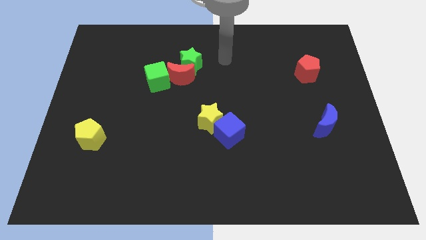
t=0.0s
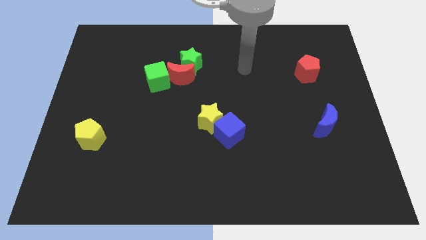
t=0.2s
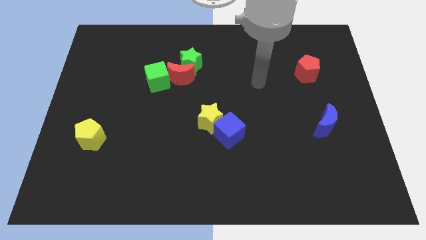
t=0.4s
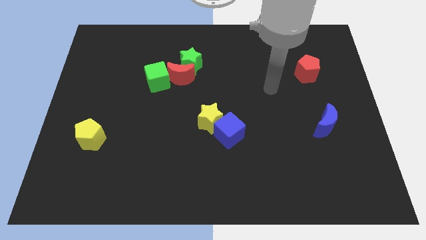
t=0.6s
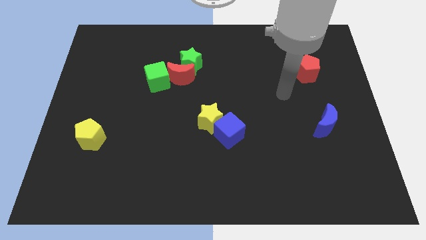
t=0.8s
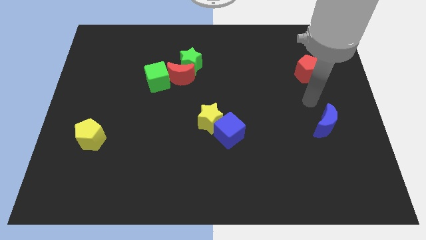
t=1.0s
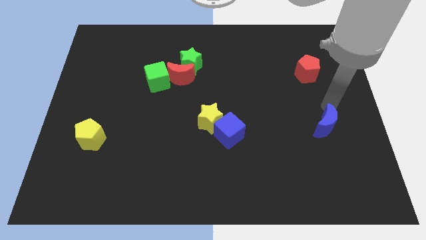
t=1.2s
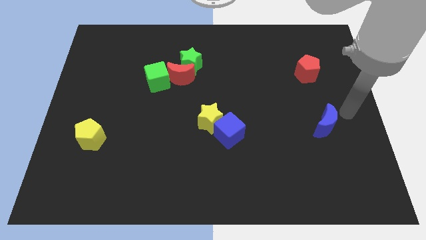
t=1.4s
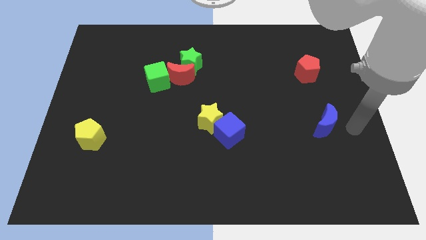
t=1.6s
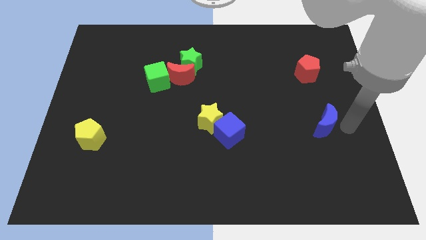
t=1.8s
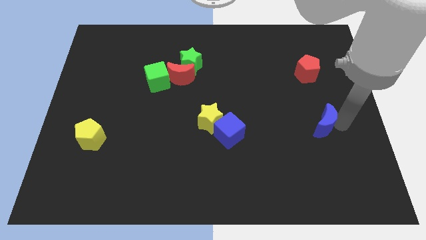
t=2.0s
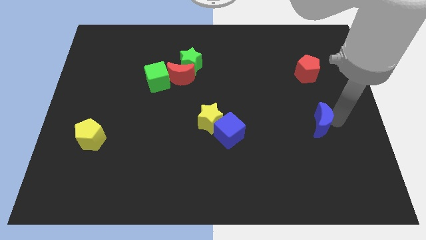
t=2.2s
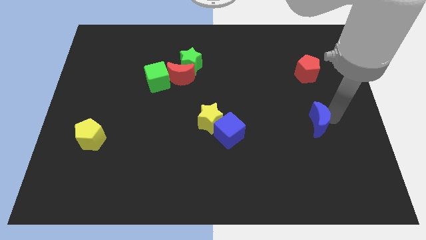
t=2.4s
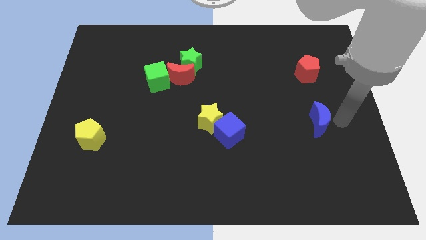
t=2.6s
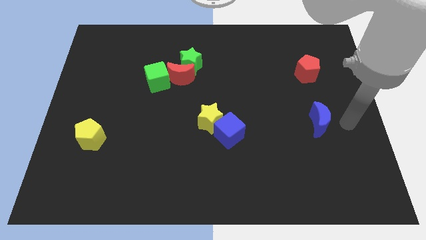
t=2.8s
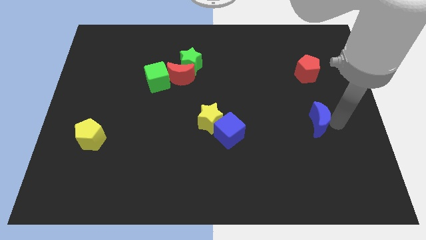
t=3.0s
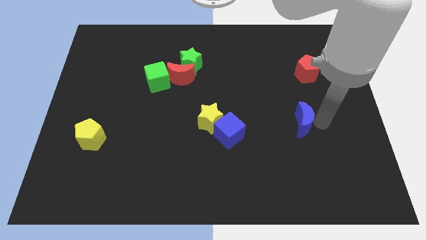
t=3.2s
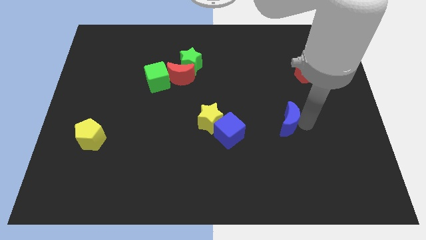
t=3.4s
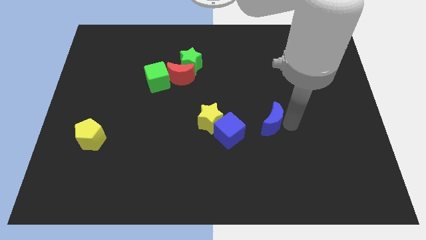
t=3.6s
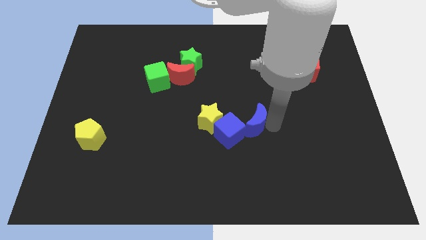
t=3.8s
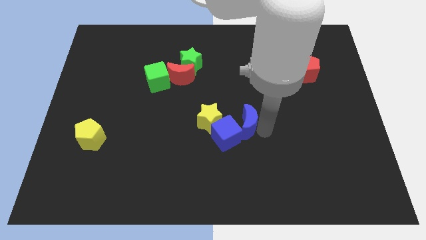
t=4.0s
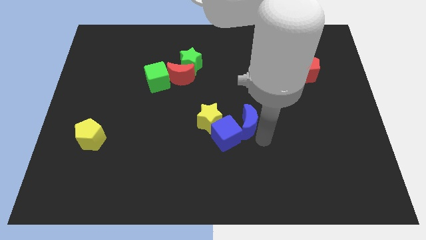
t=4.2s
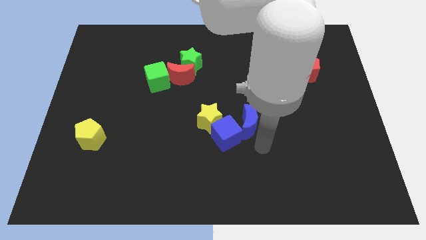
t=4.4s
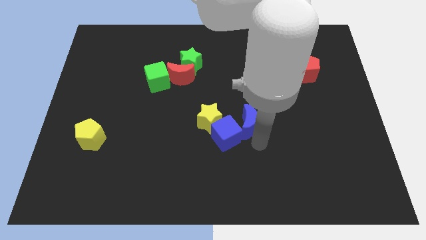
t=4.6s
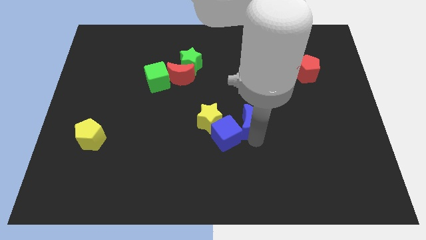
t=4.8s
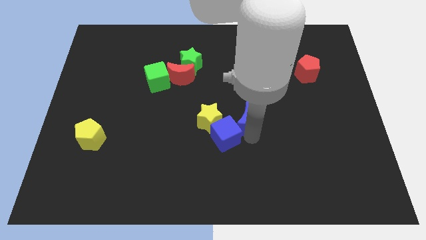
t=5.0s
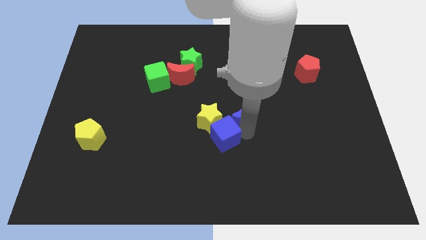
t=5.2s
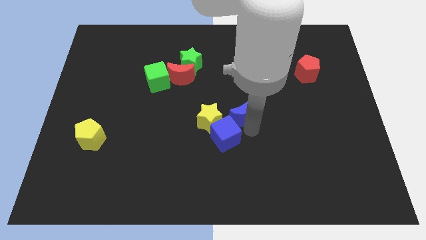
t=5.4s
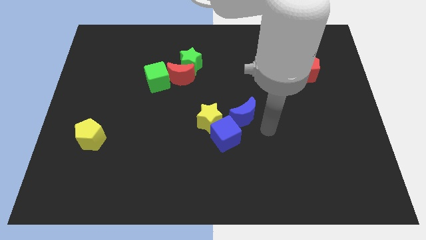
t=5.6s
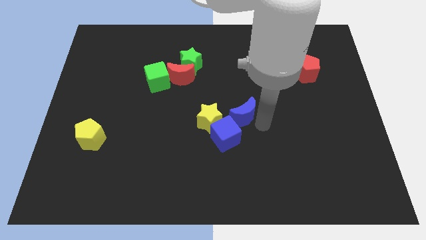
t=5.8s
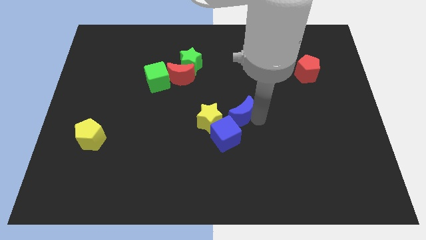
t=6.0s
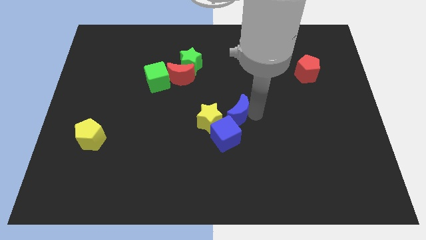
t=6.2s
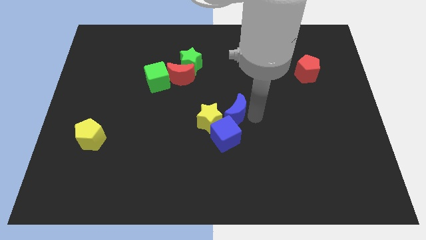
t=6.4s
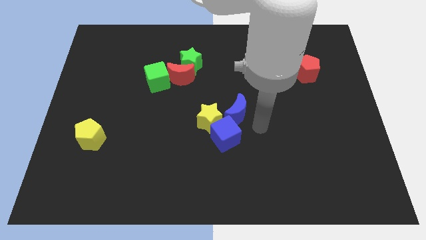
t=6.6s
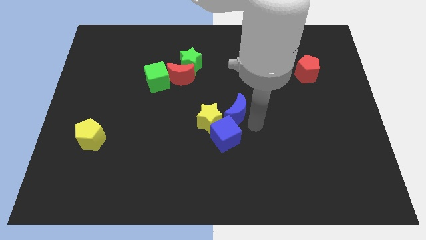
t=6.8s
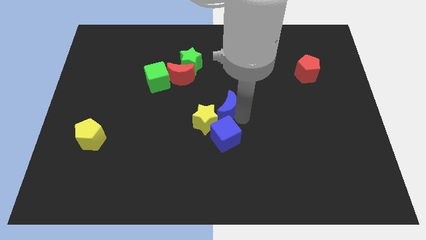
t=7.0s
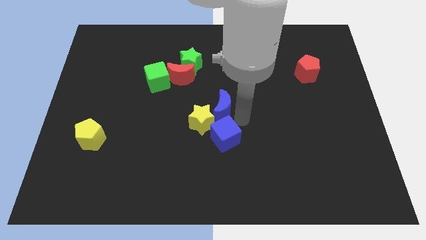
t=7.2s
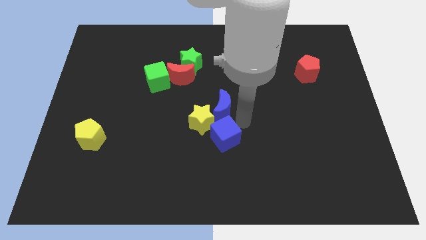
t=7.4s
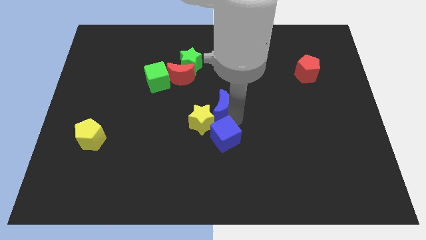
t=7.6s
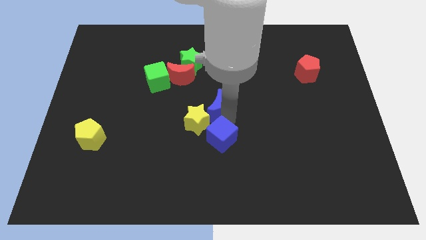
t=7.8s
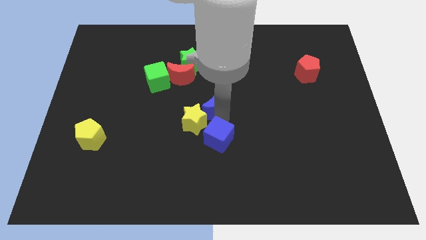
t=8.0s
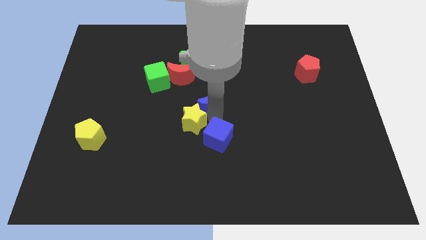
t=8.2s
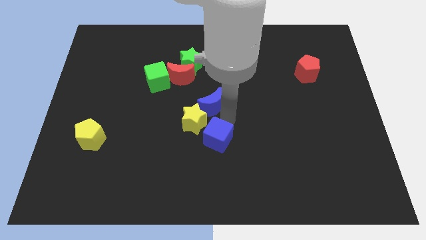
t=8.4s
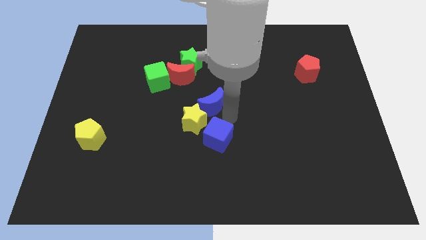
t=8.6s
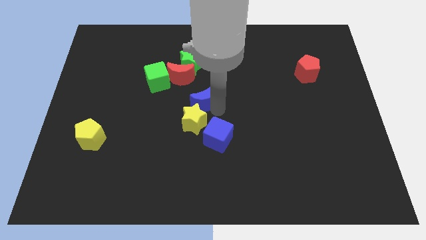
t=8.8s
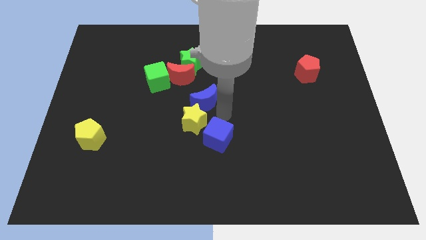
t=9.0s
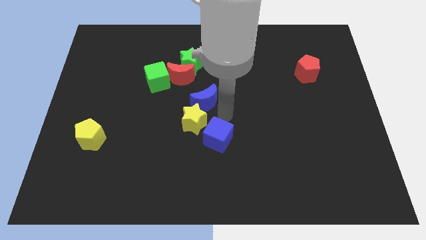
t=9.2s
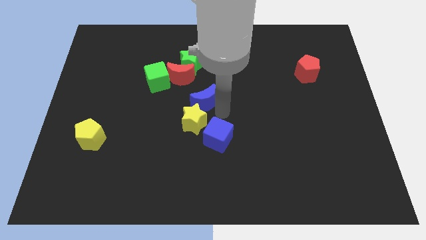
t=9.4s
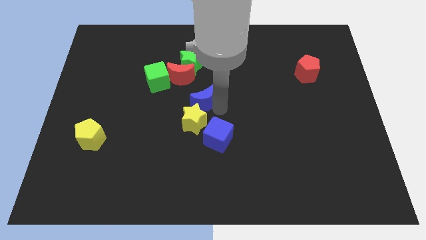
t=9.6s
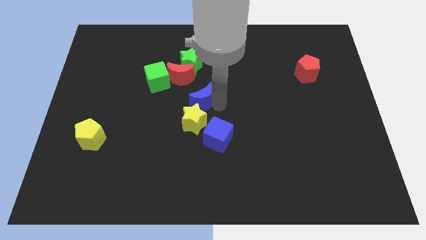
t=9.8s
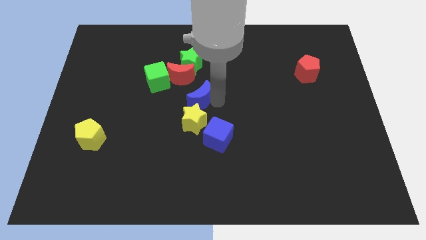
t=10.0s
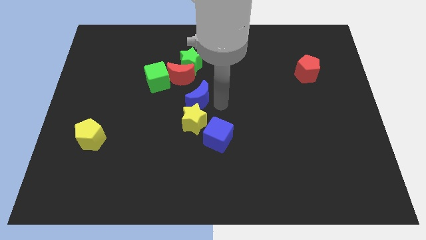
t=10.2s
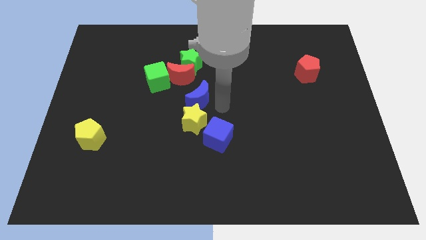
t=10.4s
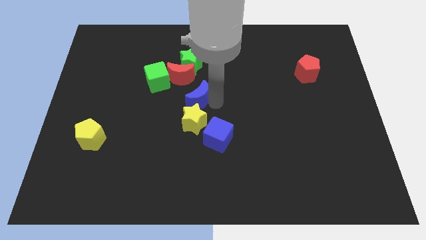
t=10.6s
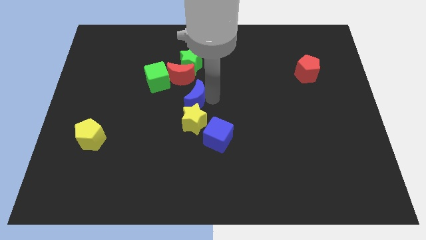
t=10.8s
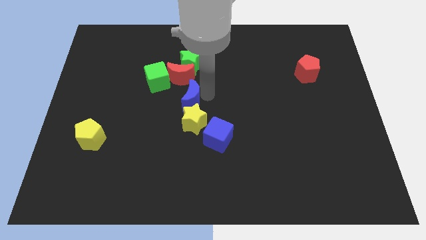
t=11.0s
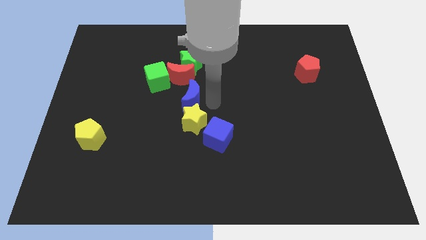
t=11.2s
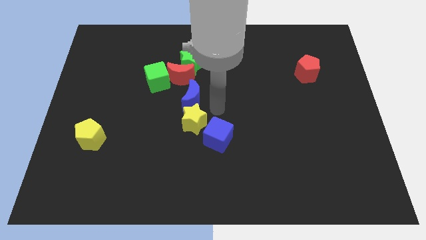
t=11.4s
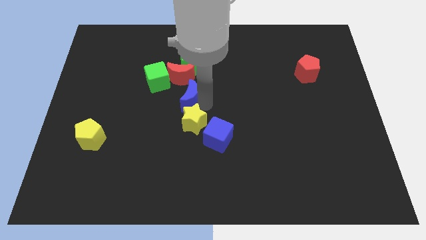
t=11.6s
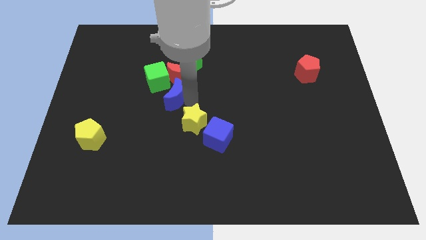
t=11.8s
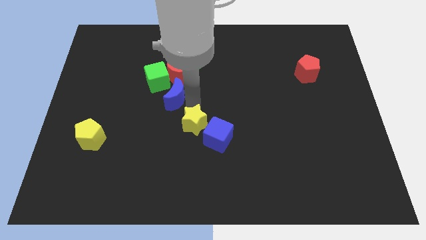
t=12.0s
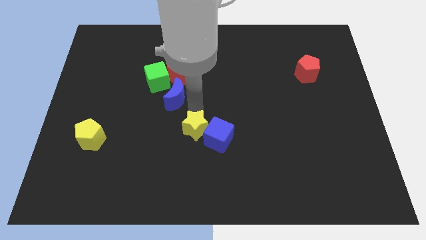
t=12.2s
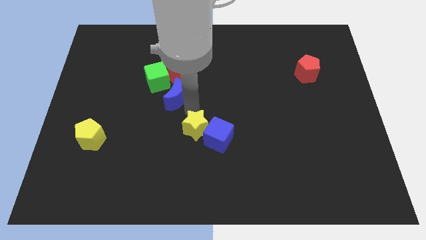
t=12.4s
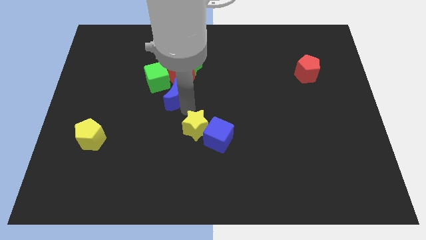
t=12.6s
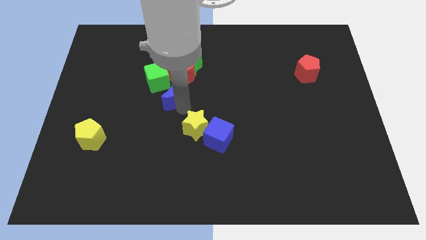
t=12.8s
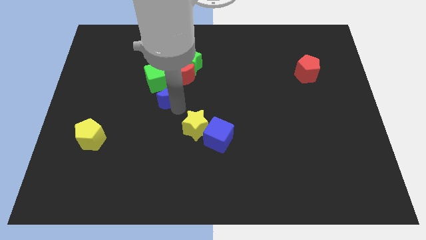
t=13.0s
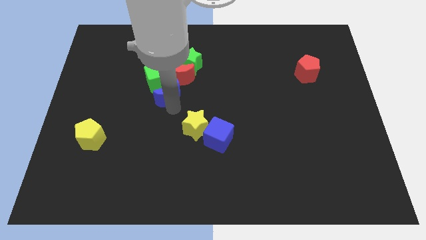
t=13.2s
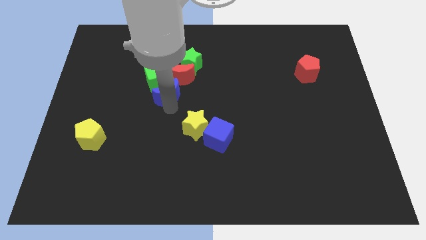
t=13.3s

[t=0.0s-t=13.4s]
move the blue moon towards the green cube
